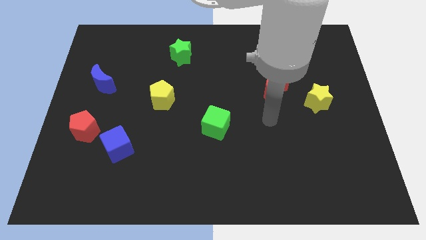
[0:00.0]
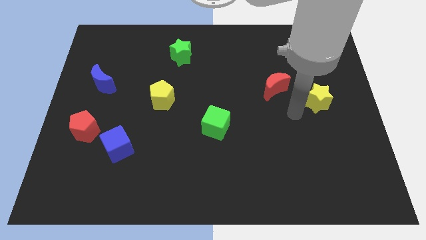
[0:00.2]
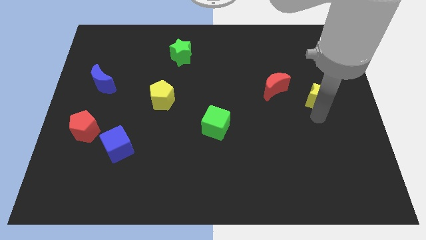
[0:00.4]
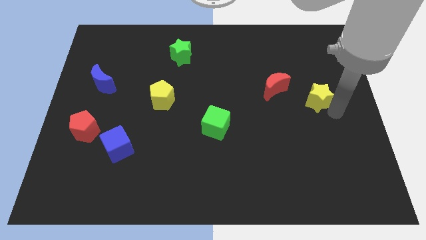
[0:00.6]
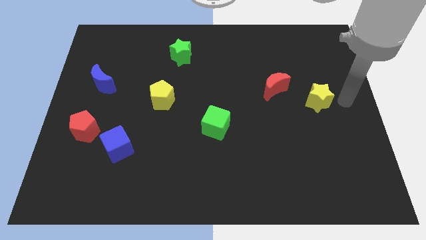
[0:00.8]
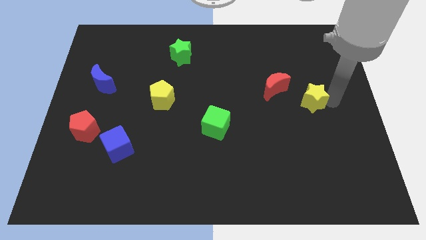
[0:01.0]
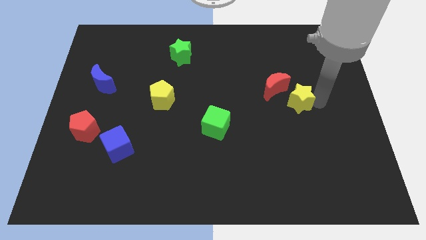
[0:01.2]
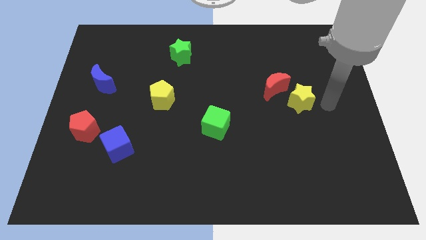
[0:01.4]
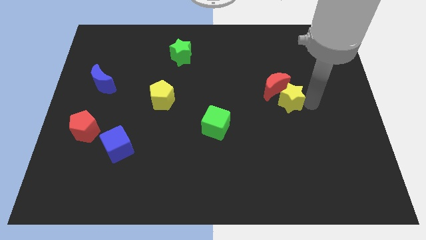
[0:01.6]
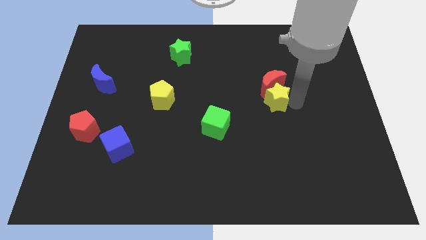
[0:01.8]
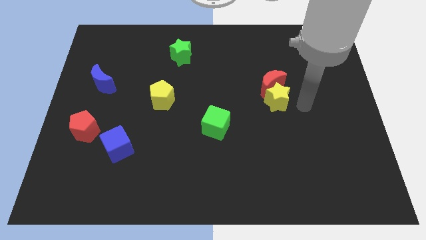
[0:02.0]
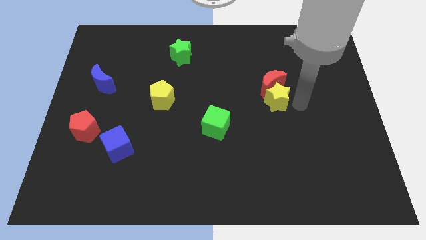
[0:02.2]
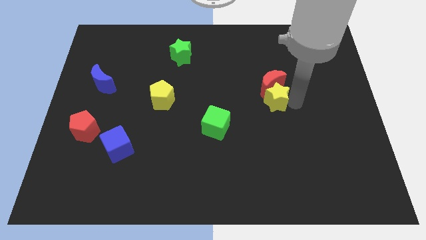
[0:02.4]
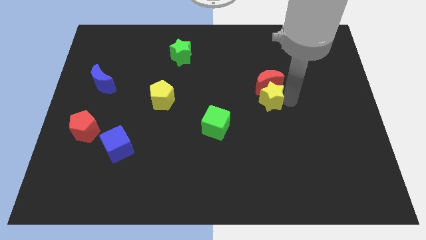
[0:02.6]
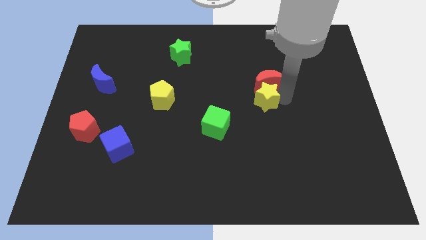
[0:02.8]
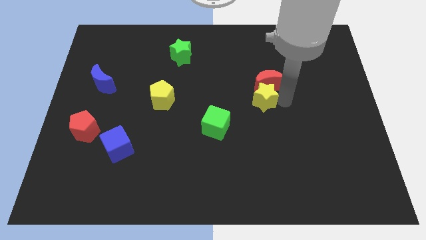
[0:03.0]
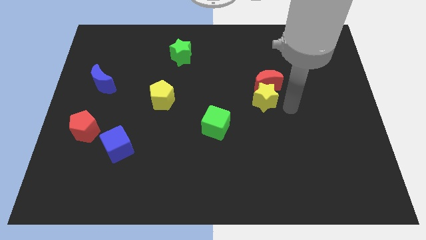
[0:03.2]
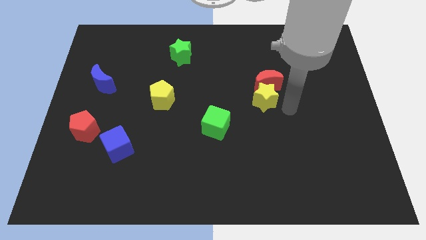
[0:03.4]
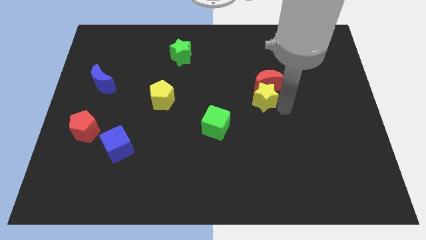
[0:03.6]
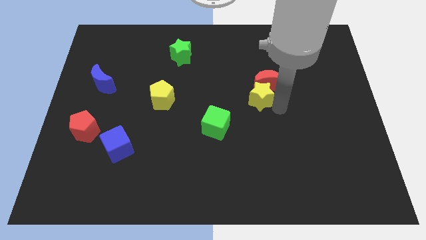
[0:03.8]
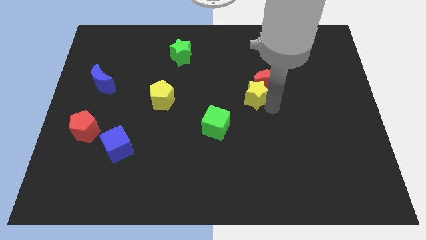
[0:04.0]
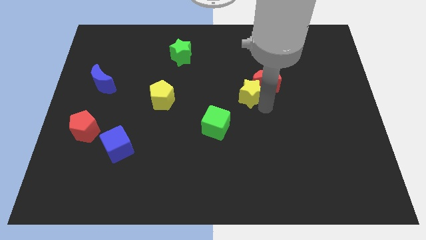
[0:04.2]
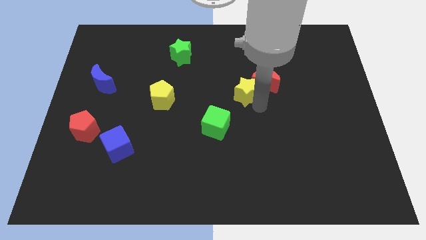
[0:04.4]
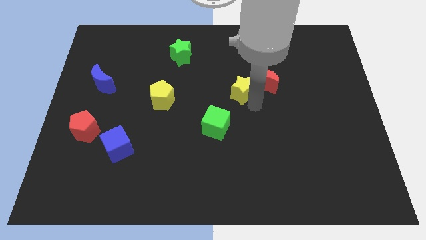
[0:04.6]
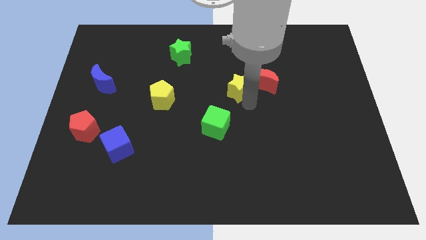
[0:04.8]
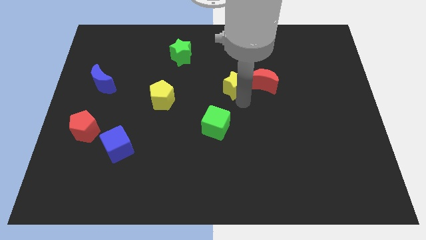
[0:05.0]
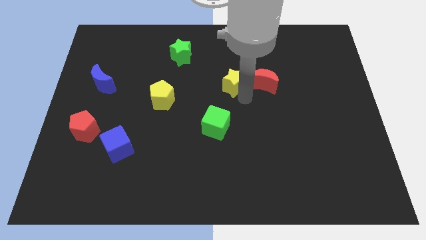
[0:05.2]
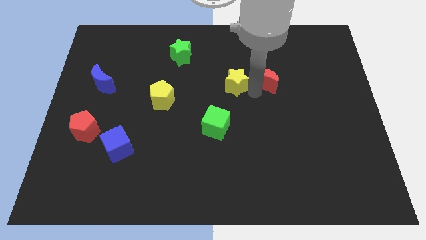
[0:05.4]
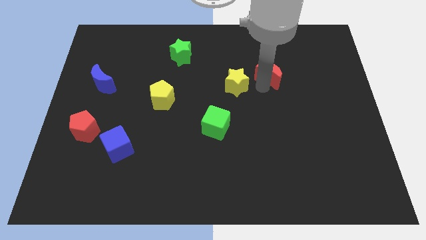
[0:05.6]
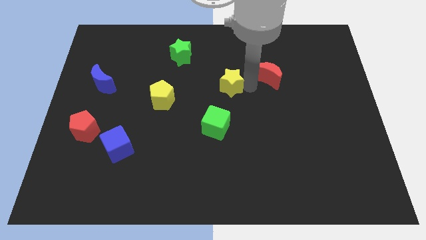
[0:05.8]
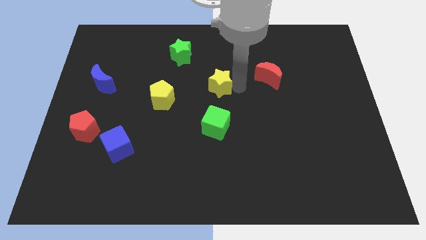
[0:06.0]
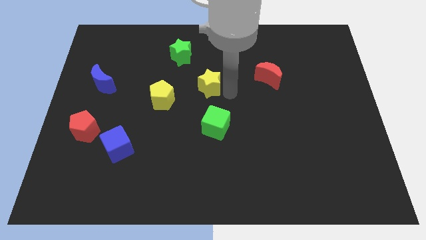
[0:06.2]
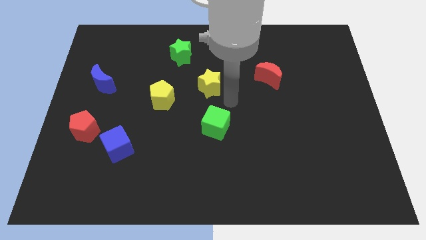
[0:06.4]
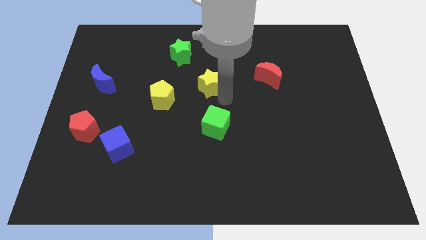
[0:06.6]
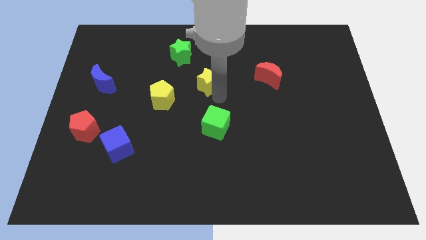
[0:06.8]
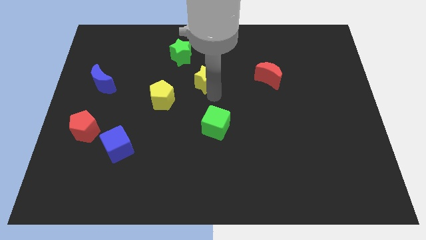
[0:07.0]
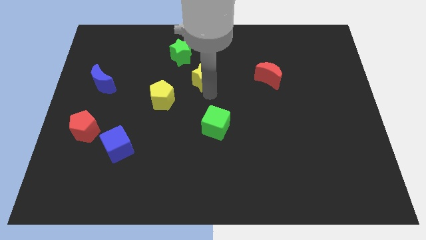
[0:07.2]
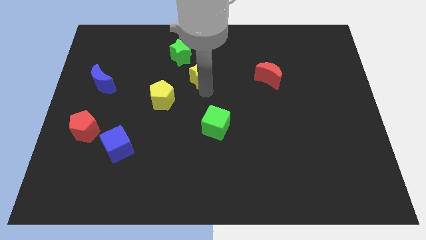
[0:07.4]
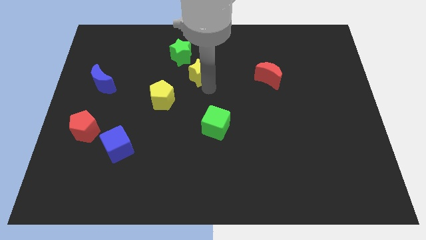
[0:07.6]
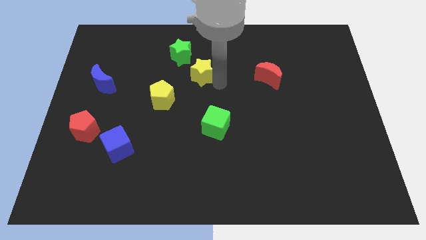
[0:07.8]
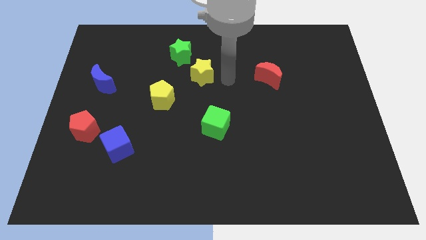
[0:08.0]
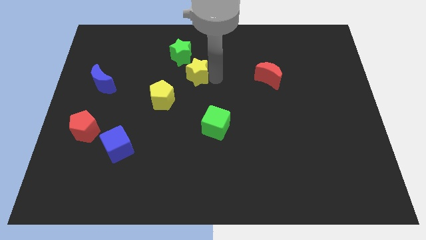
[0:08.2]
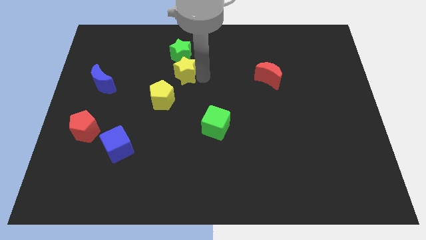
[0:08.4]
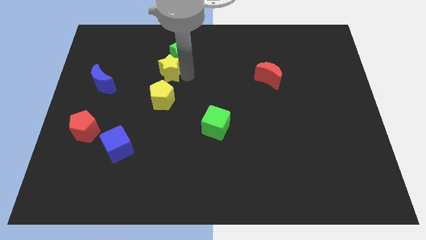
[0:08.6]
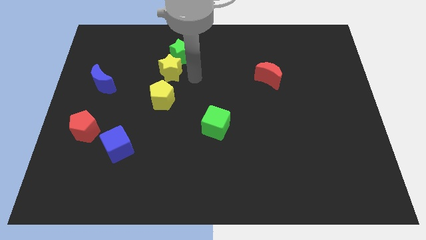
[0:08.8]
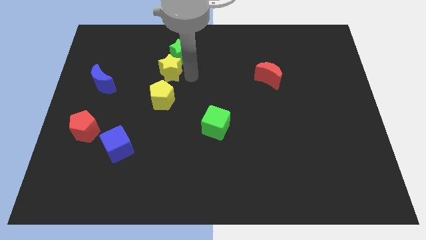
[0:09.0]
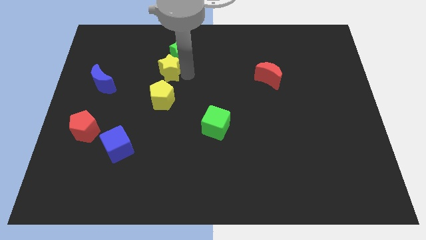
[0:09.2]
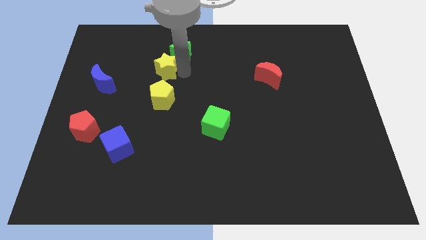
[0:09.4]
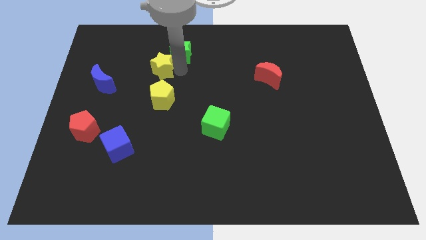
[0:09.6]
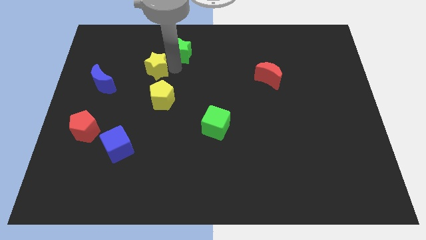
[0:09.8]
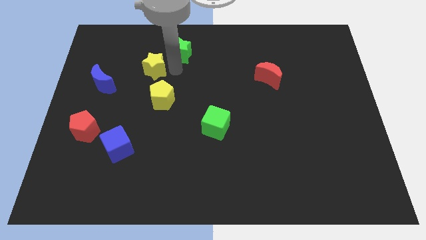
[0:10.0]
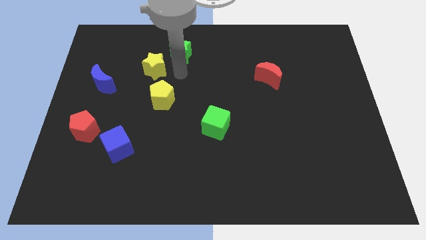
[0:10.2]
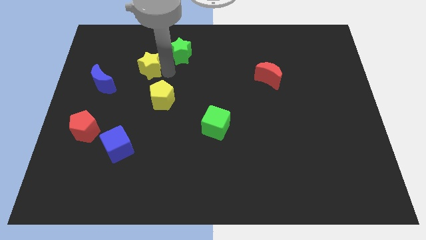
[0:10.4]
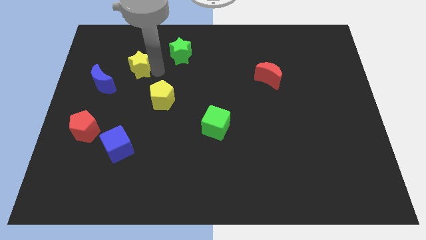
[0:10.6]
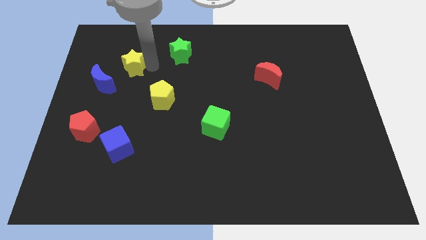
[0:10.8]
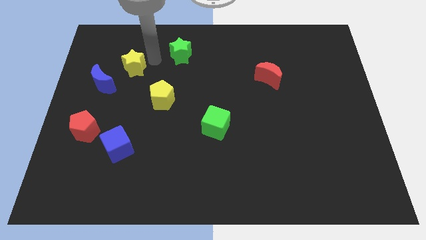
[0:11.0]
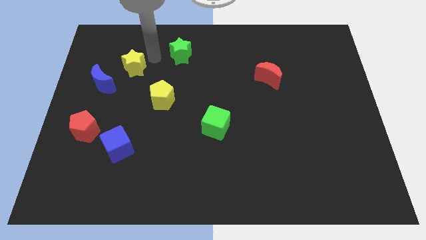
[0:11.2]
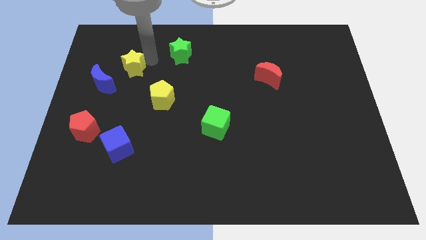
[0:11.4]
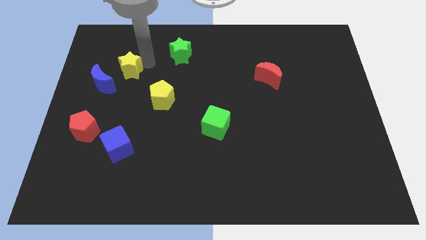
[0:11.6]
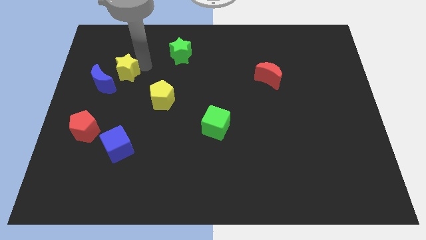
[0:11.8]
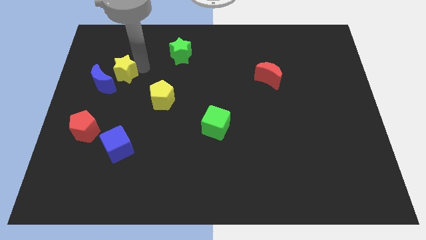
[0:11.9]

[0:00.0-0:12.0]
push the yellow star to the blue moon

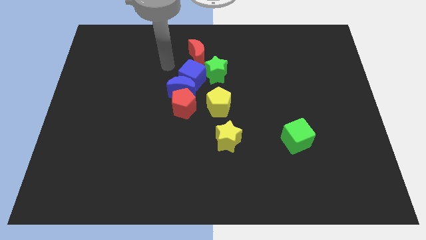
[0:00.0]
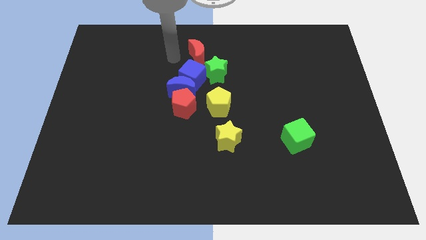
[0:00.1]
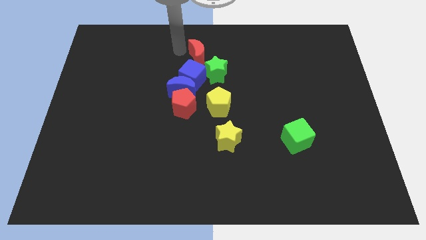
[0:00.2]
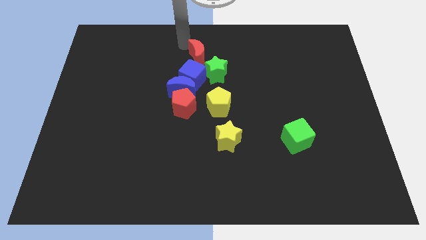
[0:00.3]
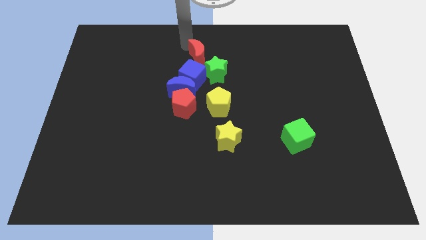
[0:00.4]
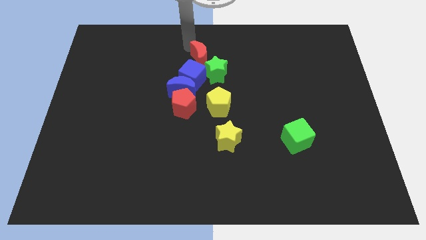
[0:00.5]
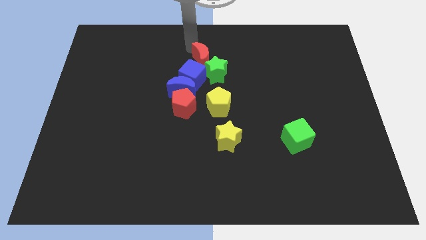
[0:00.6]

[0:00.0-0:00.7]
slide the red moon next to the green star
